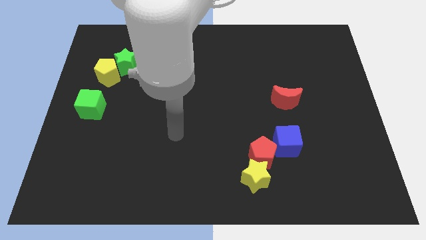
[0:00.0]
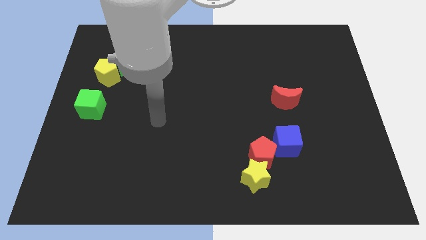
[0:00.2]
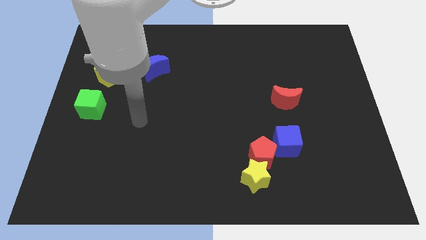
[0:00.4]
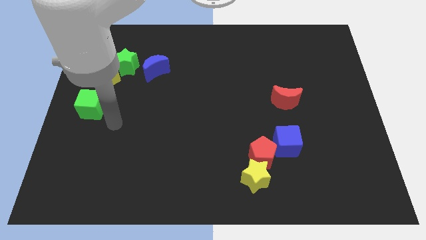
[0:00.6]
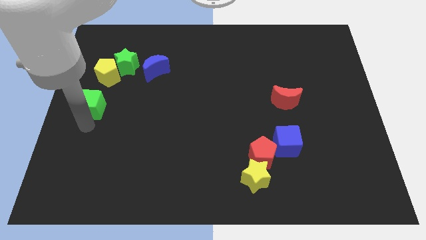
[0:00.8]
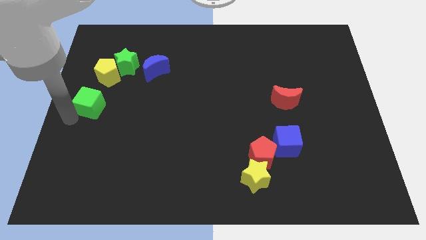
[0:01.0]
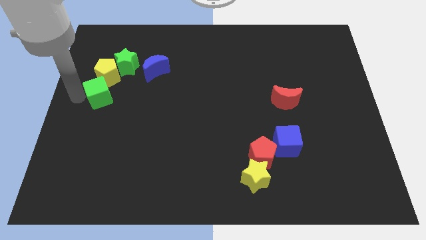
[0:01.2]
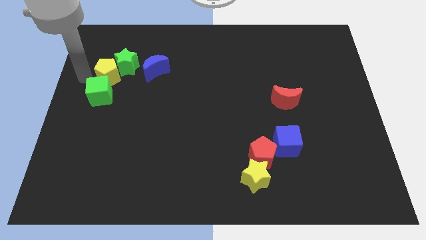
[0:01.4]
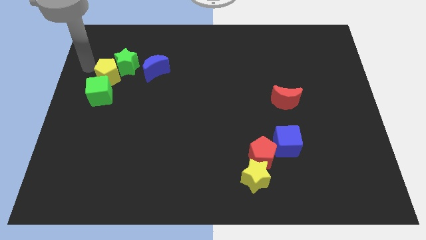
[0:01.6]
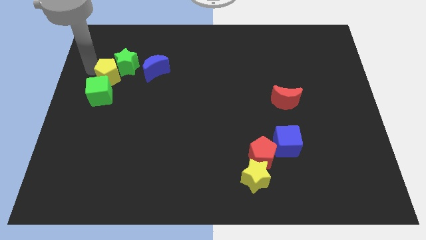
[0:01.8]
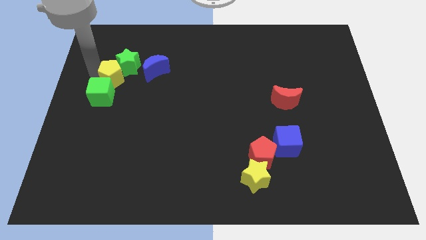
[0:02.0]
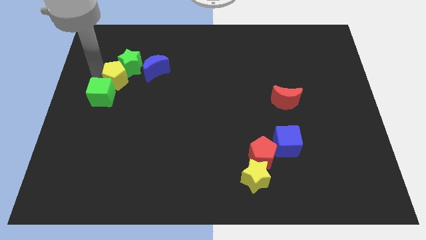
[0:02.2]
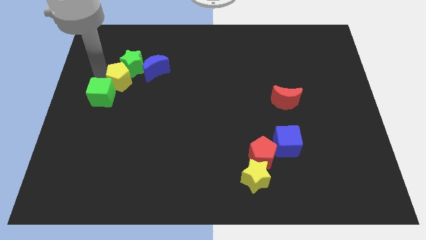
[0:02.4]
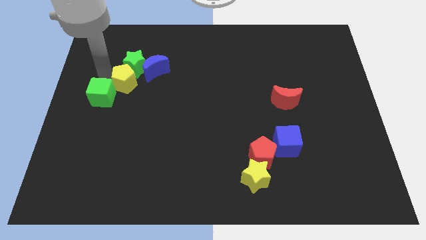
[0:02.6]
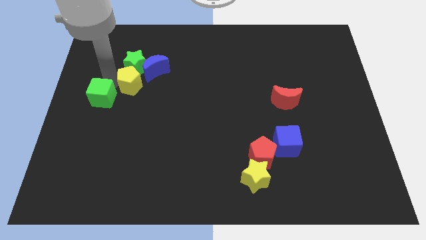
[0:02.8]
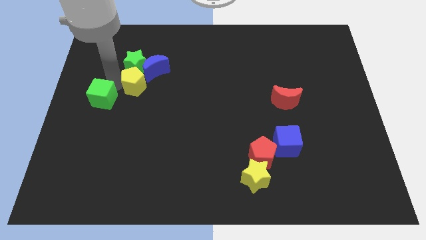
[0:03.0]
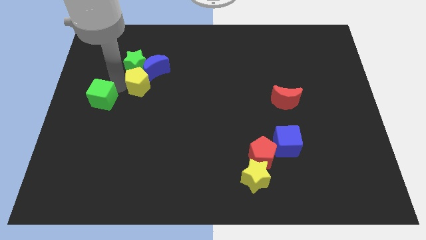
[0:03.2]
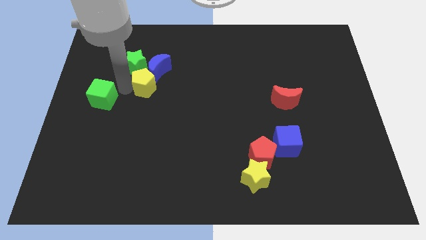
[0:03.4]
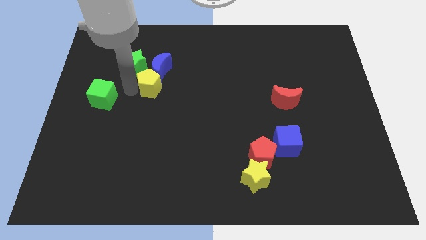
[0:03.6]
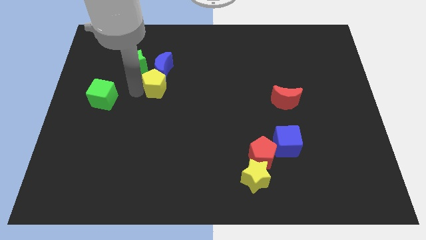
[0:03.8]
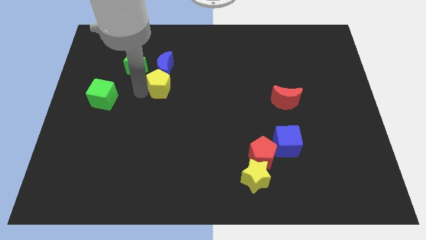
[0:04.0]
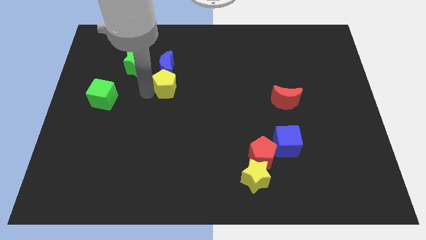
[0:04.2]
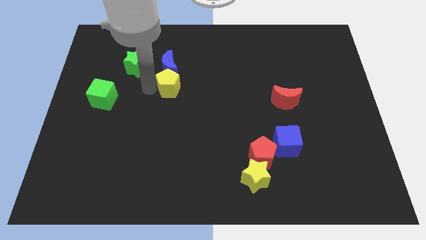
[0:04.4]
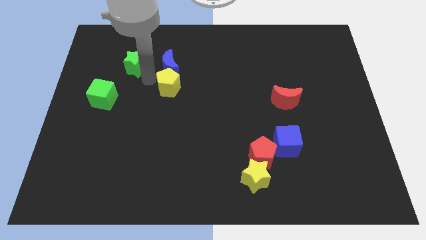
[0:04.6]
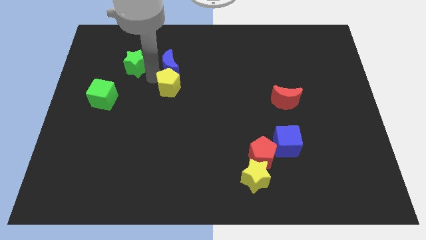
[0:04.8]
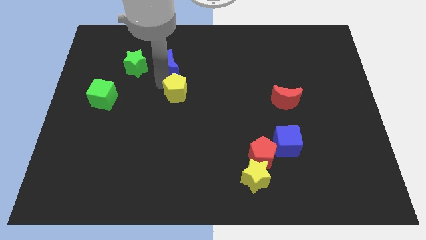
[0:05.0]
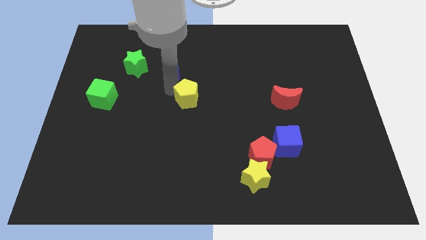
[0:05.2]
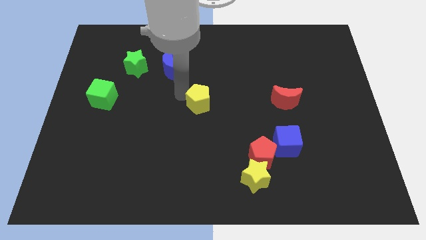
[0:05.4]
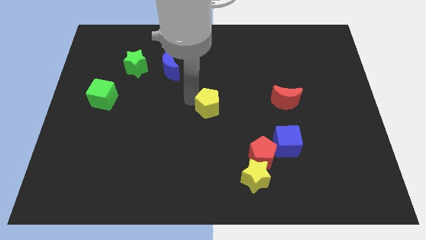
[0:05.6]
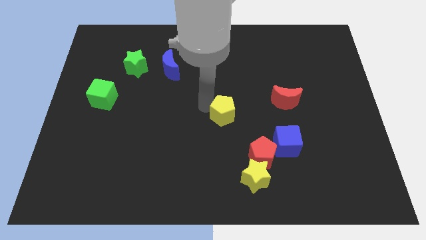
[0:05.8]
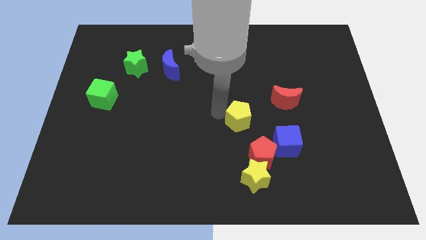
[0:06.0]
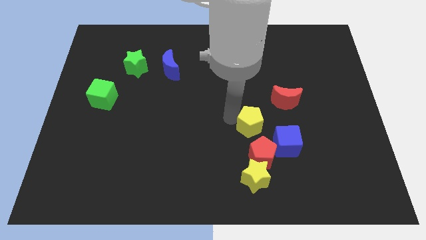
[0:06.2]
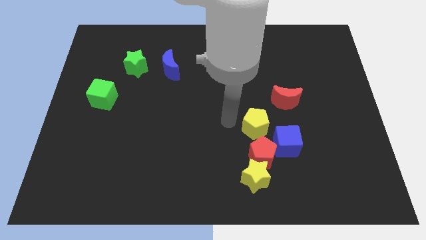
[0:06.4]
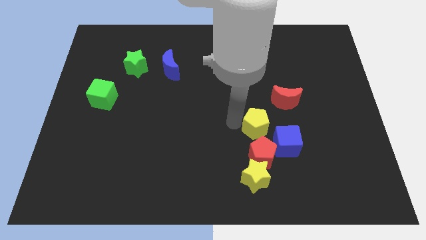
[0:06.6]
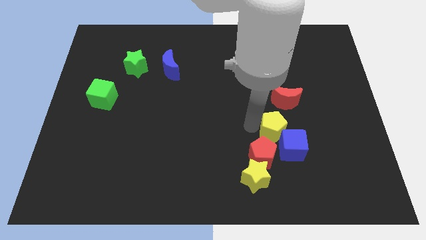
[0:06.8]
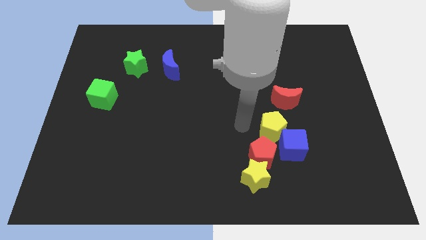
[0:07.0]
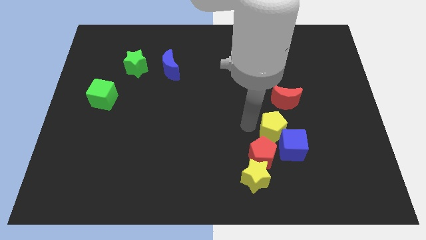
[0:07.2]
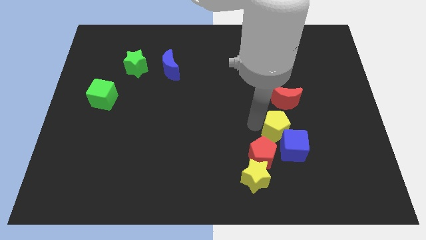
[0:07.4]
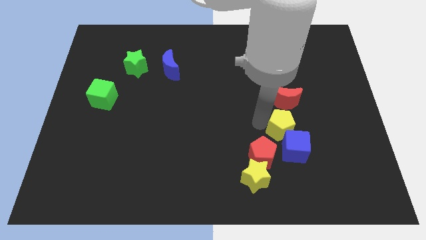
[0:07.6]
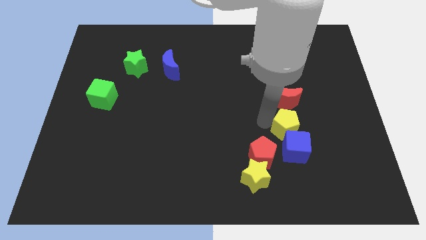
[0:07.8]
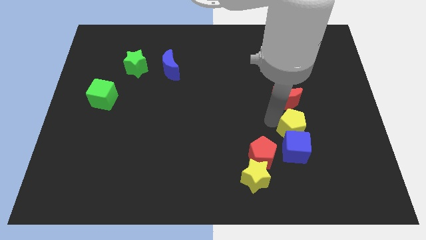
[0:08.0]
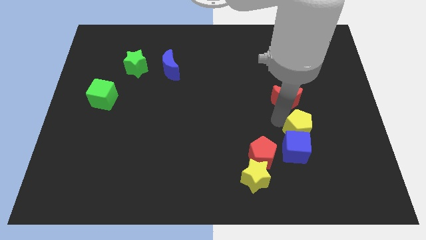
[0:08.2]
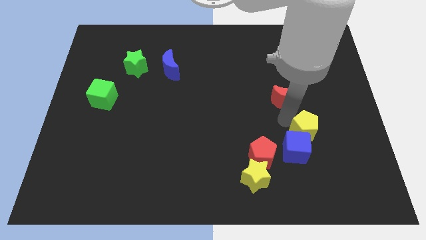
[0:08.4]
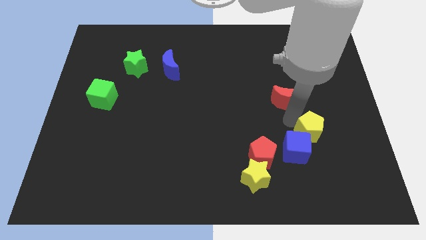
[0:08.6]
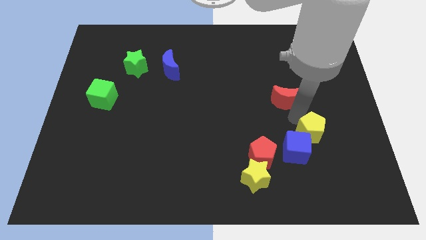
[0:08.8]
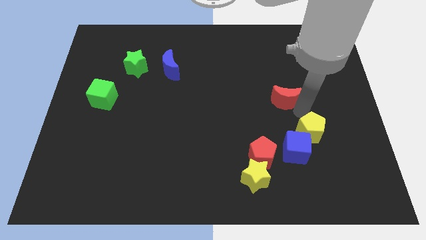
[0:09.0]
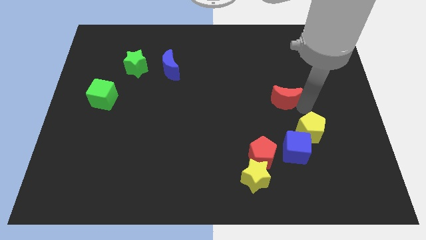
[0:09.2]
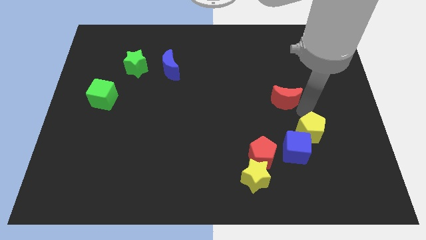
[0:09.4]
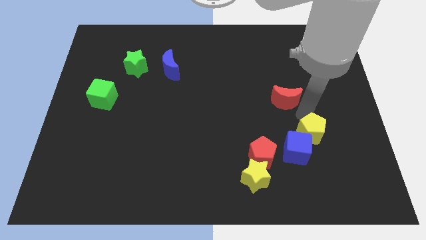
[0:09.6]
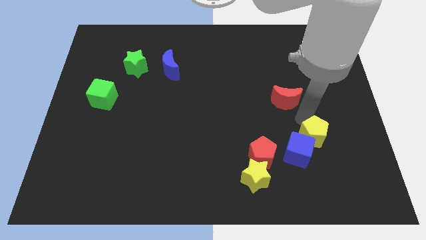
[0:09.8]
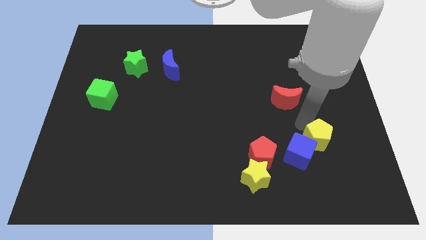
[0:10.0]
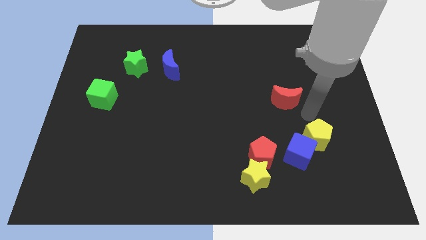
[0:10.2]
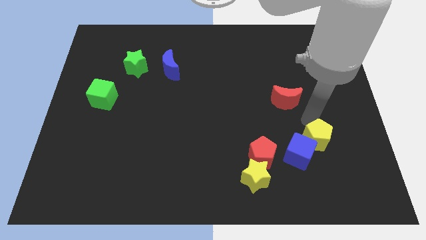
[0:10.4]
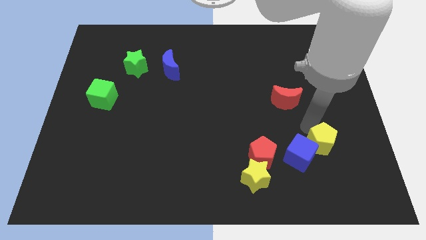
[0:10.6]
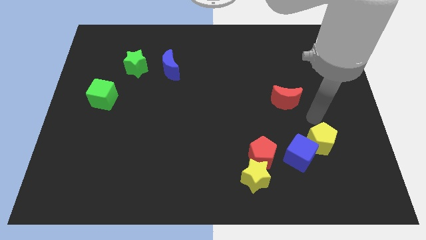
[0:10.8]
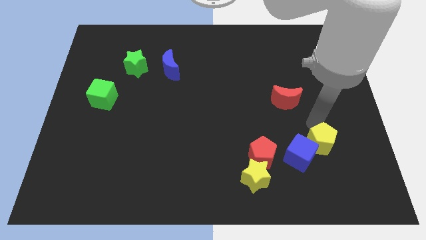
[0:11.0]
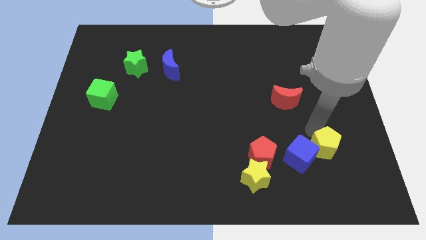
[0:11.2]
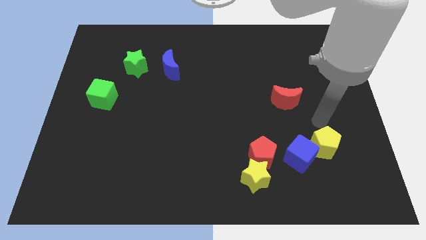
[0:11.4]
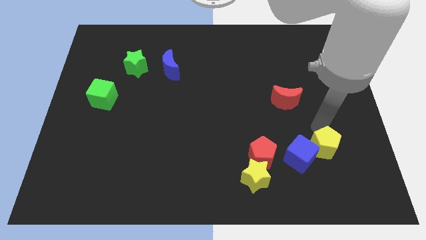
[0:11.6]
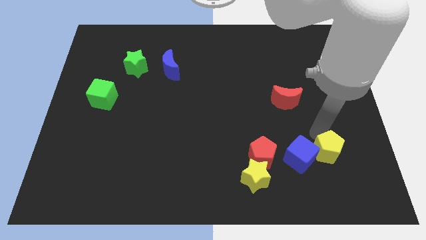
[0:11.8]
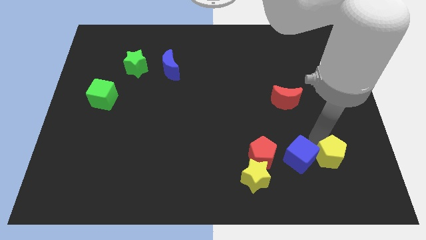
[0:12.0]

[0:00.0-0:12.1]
move the yellow pentagon to the bottom right side of the blue cube

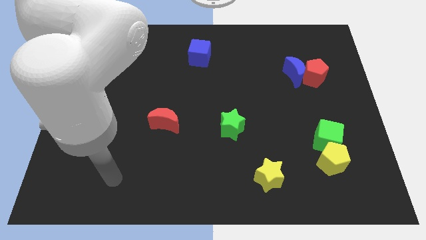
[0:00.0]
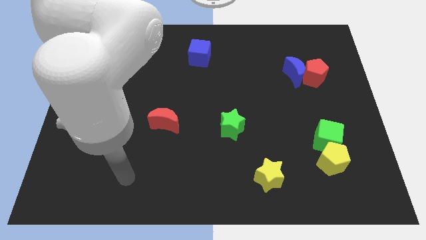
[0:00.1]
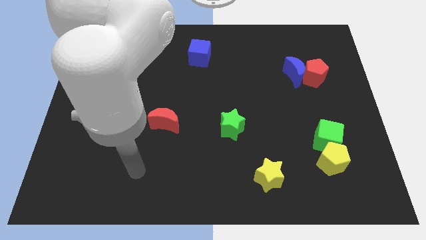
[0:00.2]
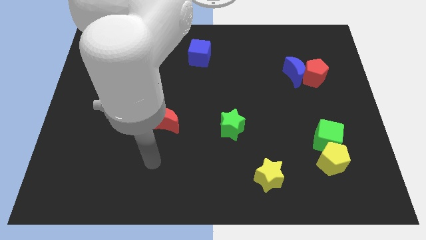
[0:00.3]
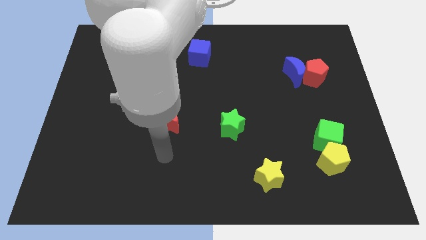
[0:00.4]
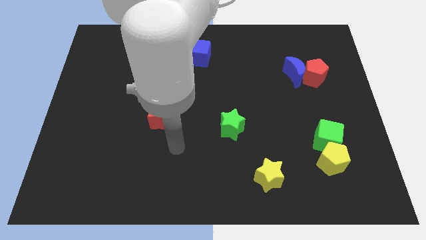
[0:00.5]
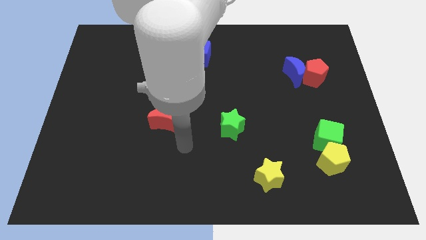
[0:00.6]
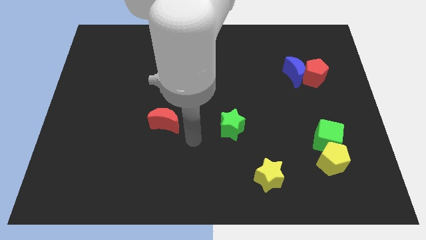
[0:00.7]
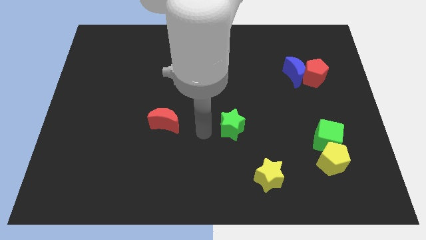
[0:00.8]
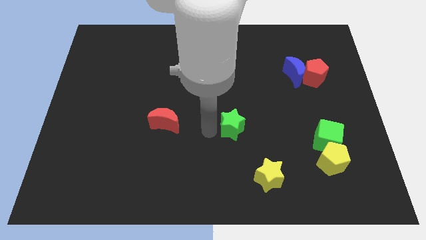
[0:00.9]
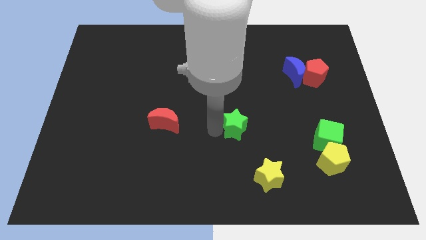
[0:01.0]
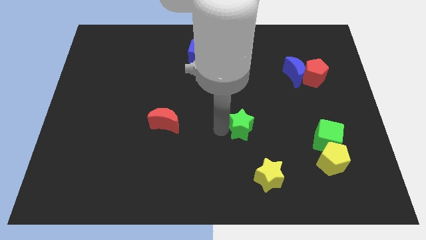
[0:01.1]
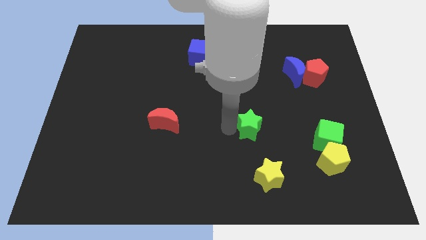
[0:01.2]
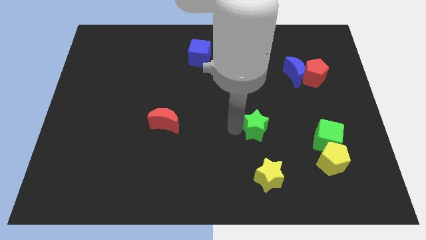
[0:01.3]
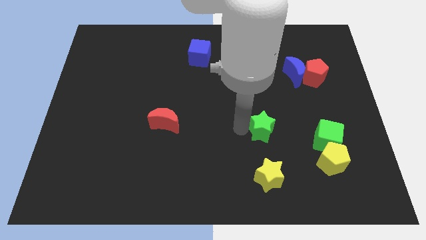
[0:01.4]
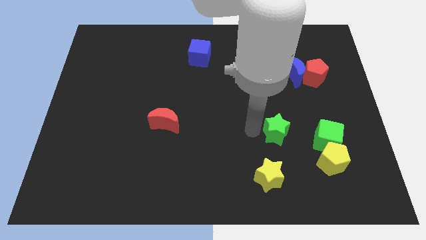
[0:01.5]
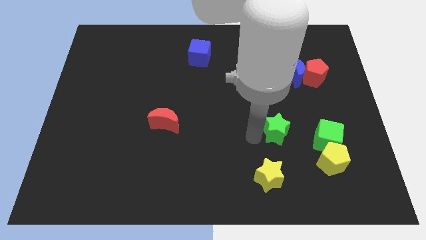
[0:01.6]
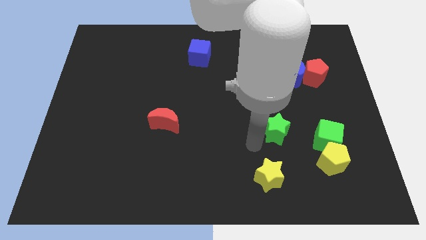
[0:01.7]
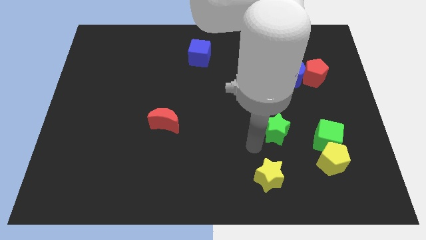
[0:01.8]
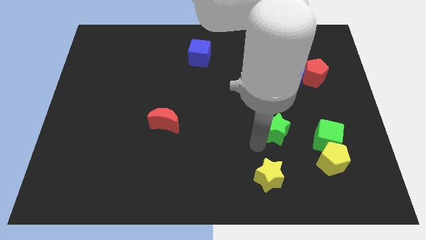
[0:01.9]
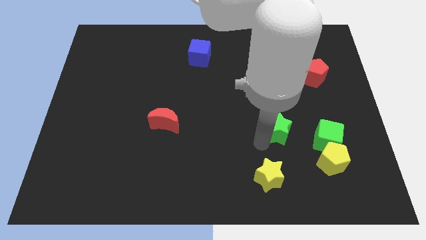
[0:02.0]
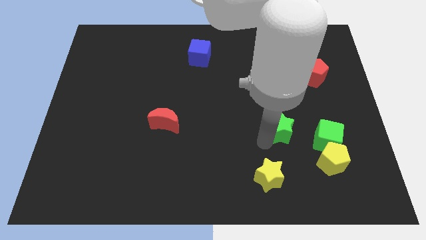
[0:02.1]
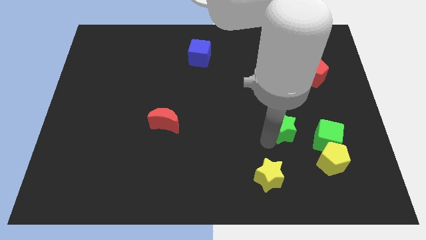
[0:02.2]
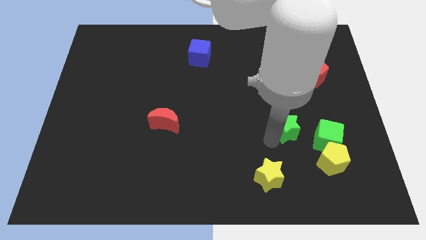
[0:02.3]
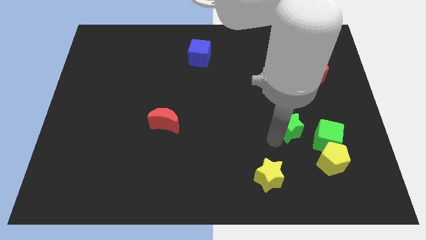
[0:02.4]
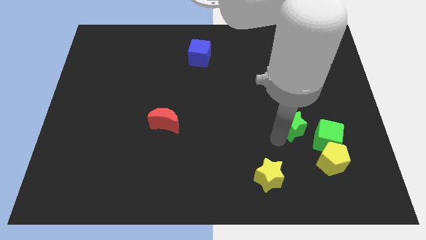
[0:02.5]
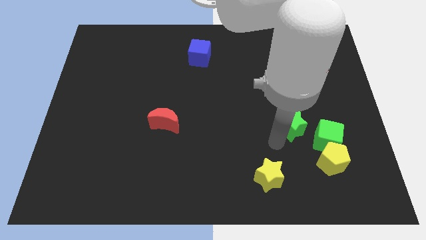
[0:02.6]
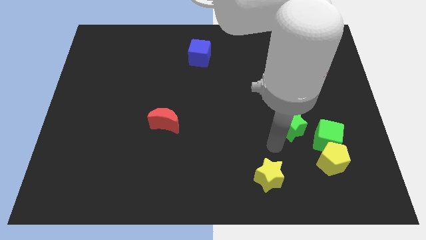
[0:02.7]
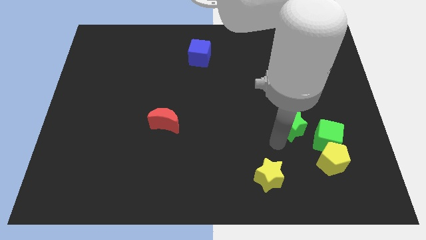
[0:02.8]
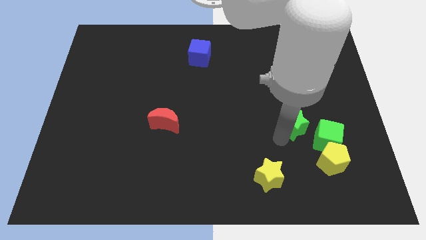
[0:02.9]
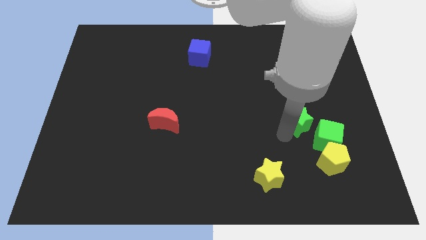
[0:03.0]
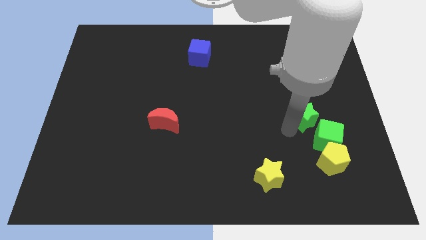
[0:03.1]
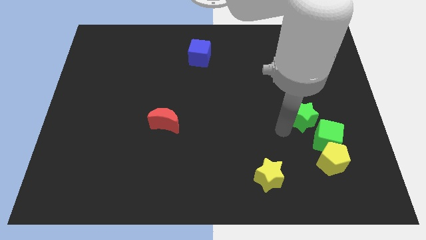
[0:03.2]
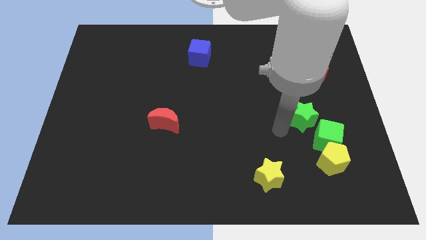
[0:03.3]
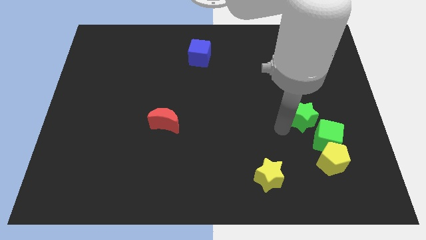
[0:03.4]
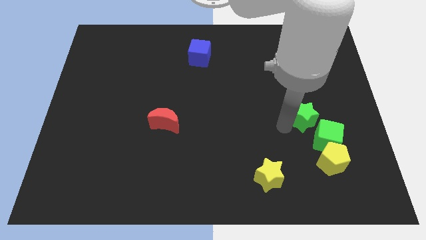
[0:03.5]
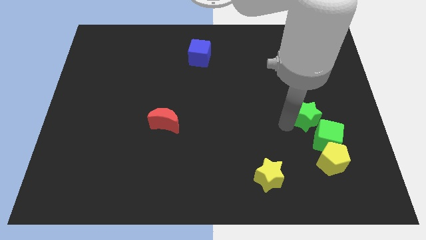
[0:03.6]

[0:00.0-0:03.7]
put the green star to the bottom side of the red pentagon
